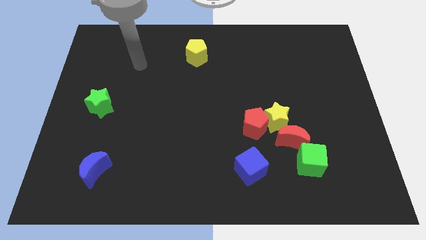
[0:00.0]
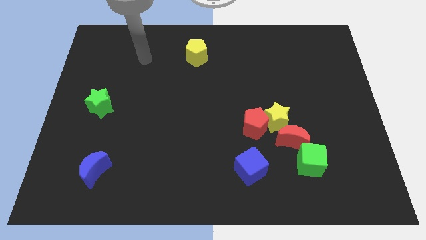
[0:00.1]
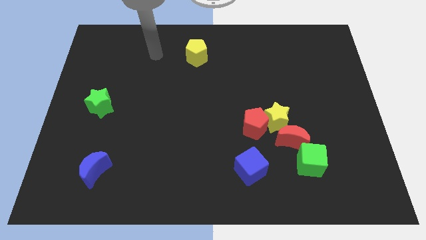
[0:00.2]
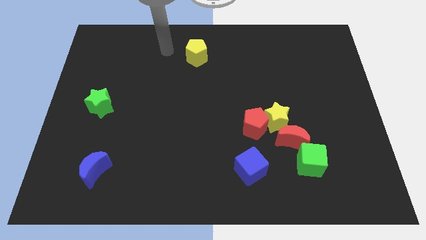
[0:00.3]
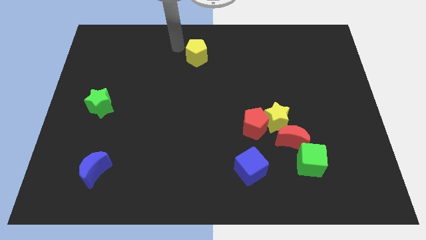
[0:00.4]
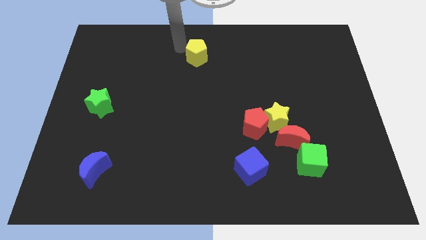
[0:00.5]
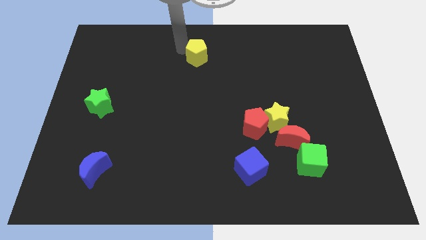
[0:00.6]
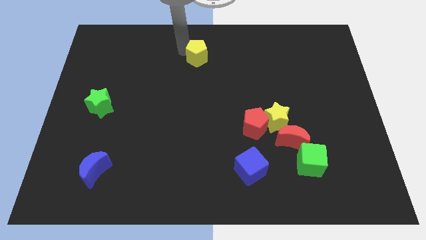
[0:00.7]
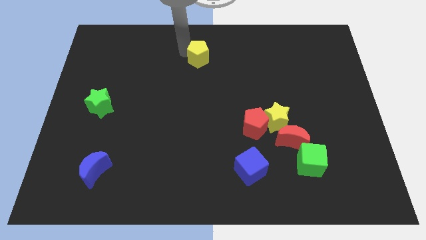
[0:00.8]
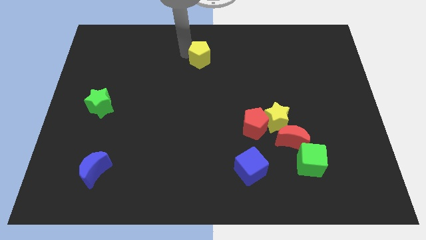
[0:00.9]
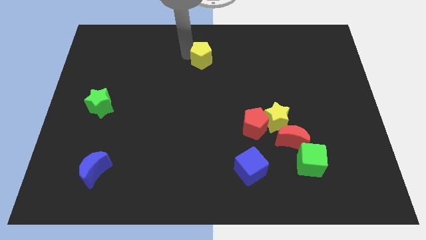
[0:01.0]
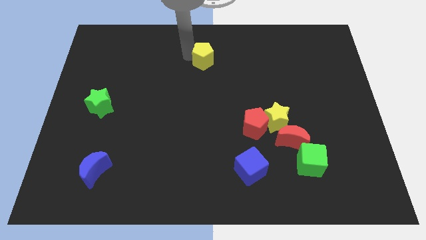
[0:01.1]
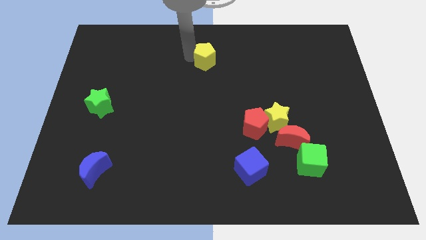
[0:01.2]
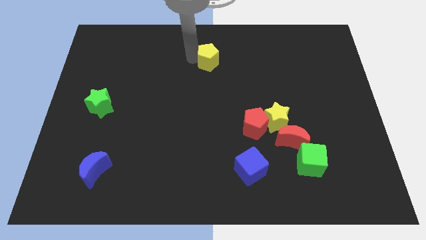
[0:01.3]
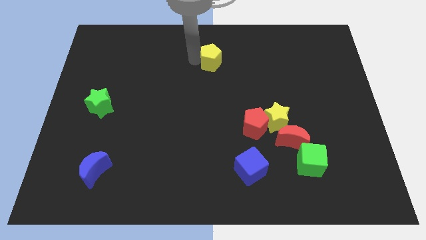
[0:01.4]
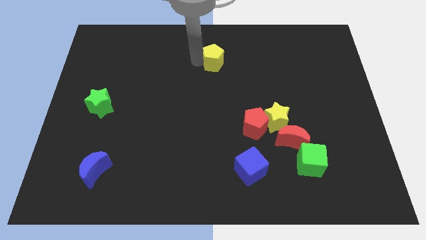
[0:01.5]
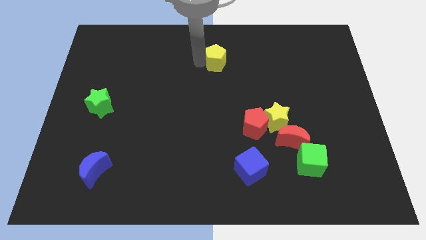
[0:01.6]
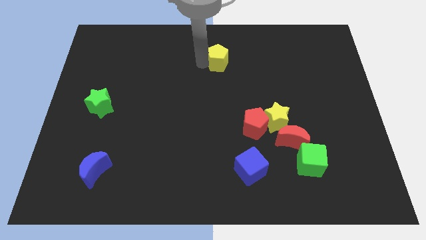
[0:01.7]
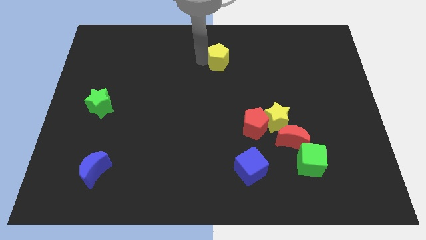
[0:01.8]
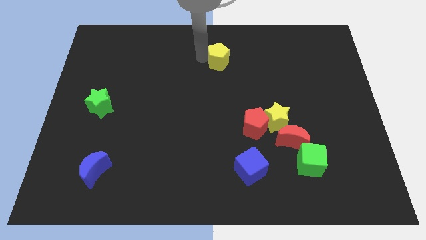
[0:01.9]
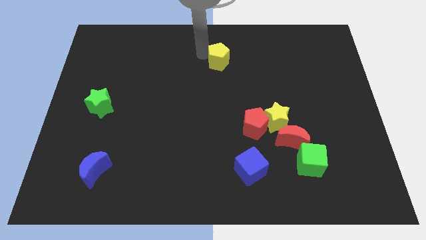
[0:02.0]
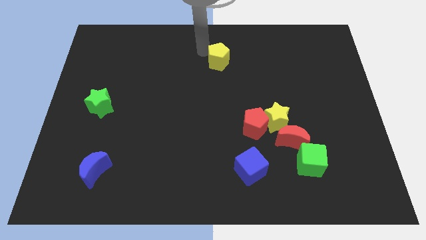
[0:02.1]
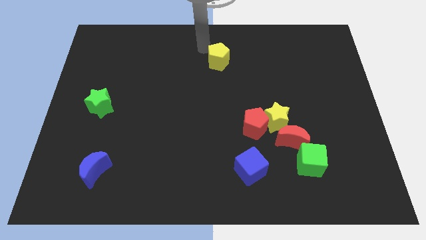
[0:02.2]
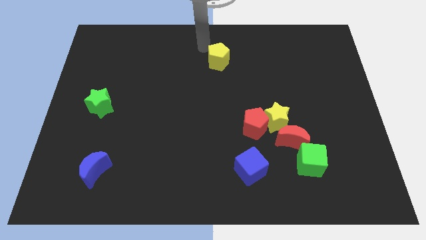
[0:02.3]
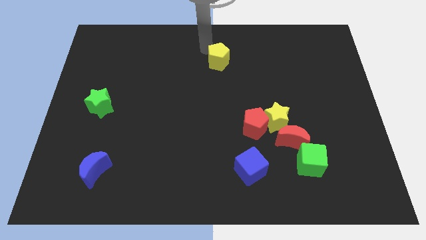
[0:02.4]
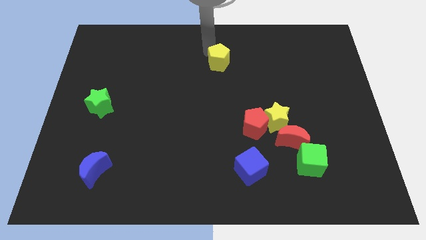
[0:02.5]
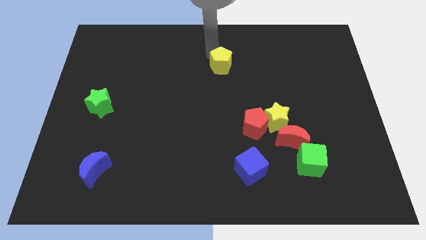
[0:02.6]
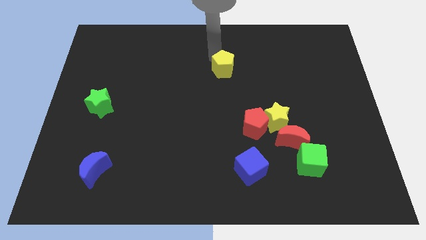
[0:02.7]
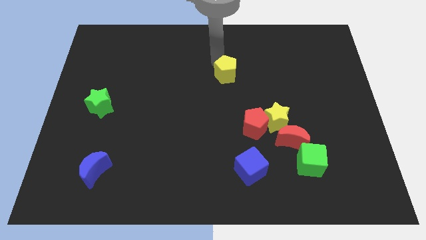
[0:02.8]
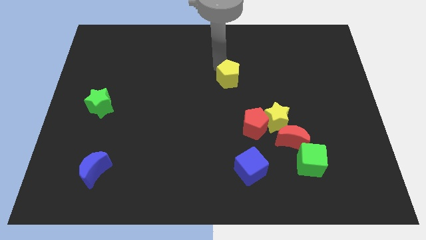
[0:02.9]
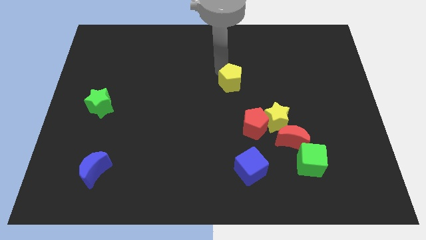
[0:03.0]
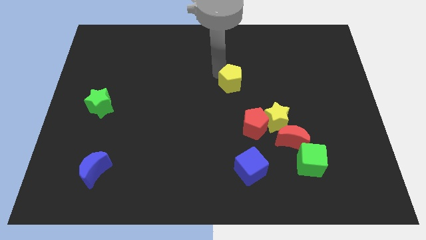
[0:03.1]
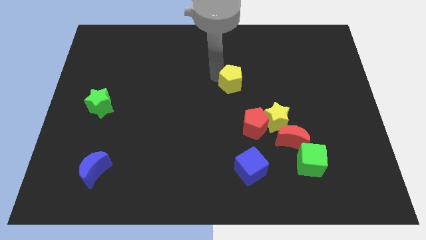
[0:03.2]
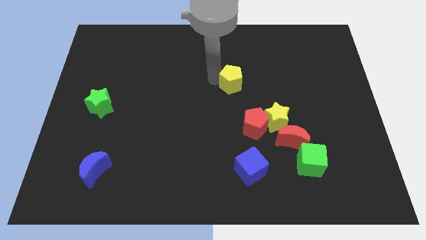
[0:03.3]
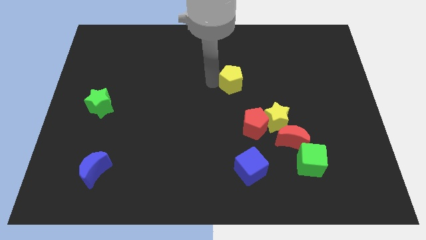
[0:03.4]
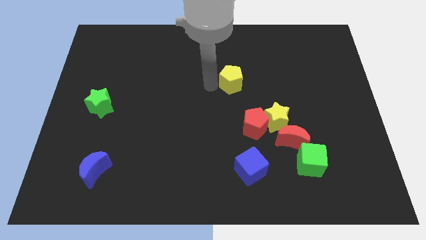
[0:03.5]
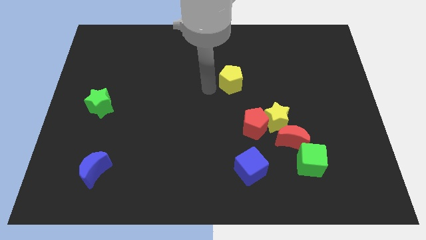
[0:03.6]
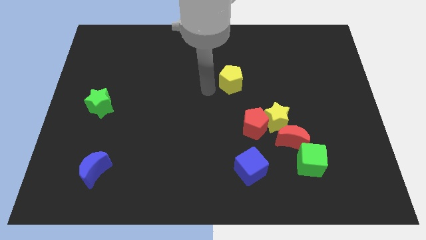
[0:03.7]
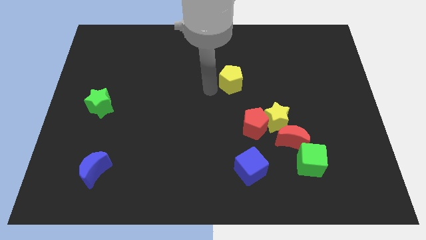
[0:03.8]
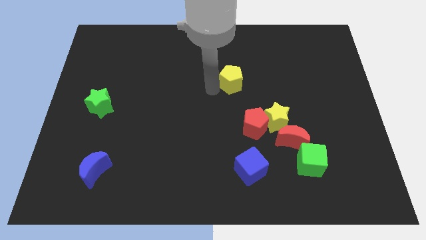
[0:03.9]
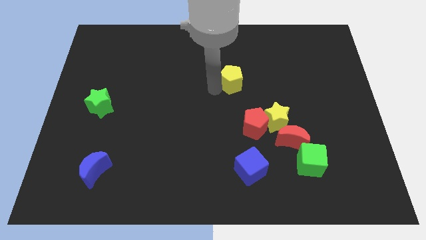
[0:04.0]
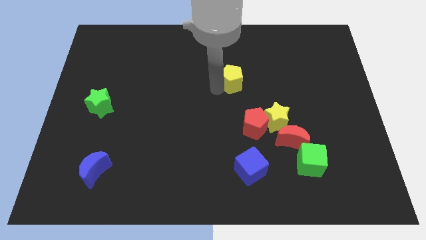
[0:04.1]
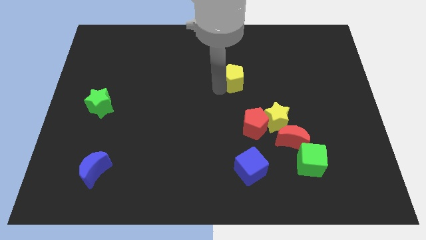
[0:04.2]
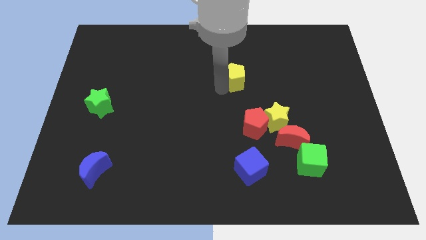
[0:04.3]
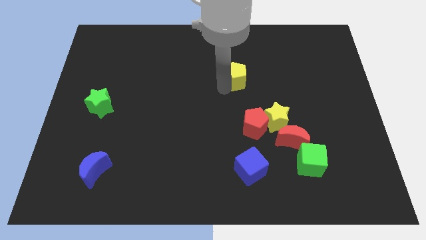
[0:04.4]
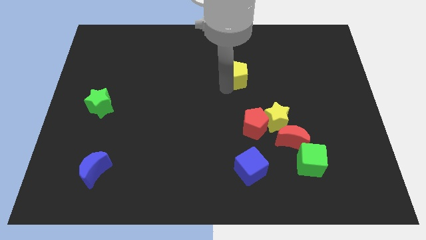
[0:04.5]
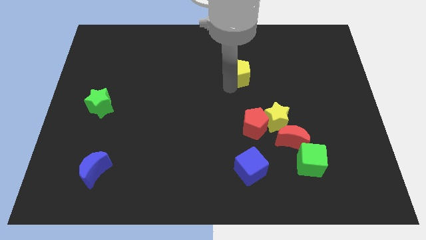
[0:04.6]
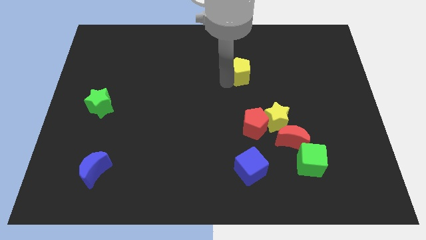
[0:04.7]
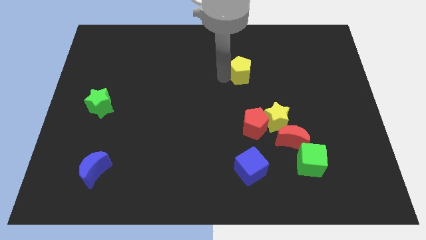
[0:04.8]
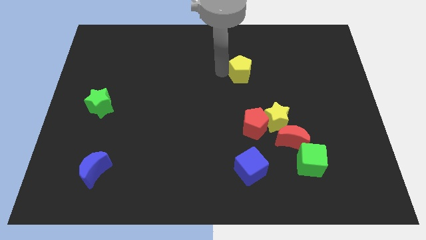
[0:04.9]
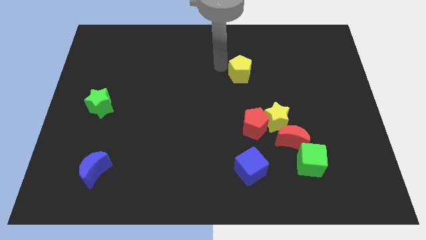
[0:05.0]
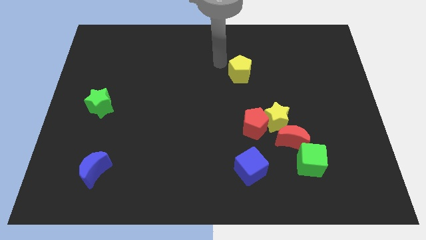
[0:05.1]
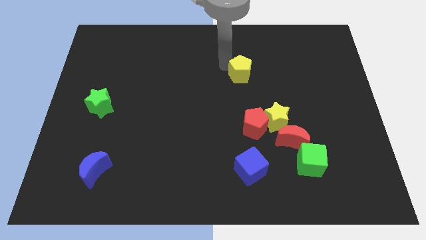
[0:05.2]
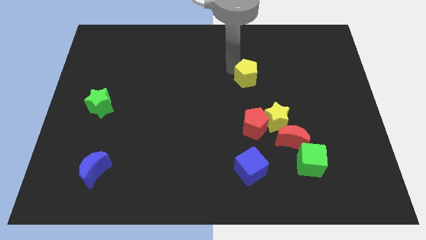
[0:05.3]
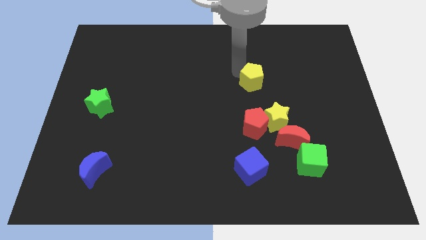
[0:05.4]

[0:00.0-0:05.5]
put the yellow pentagon to the top of the yellow star

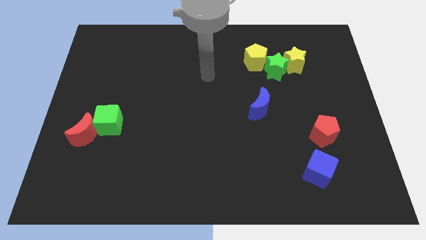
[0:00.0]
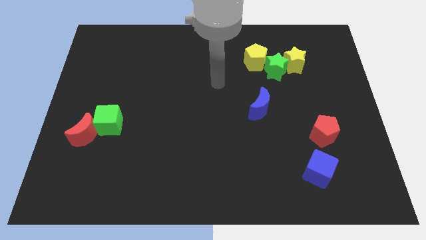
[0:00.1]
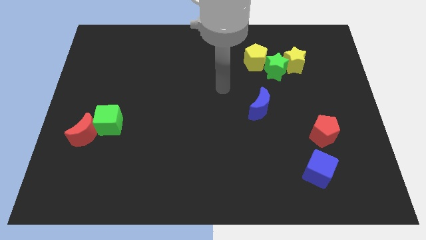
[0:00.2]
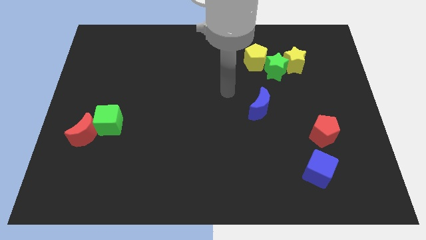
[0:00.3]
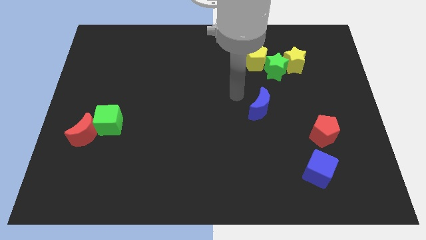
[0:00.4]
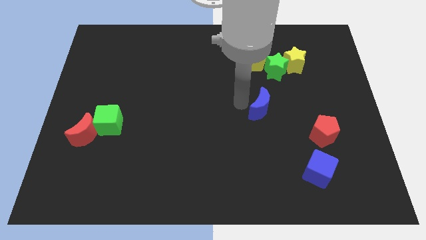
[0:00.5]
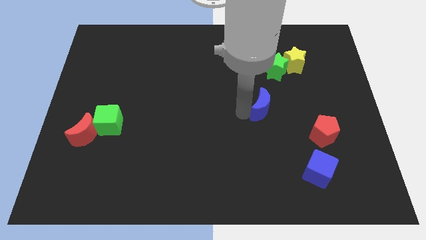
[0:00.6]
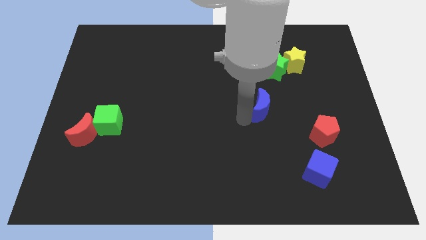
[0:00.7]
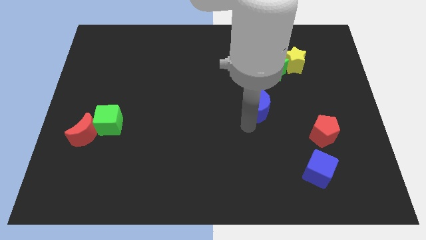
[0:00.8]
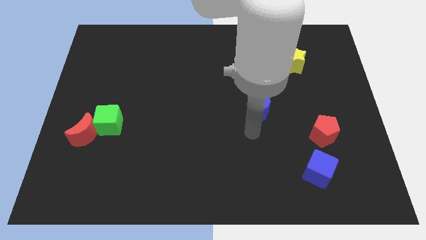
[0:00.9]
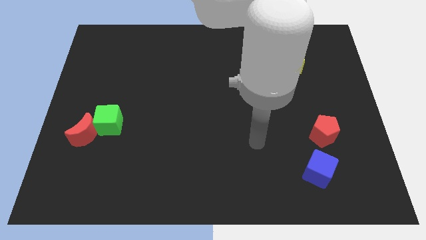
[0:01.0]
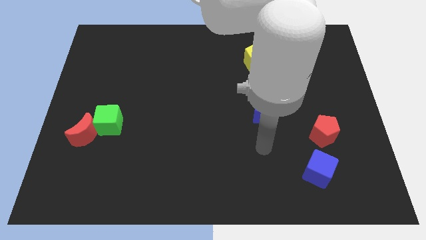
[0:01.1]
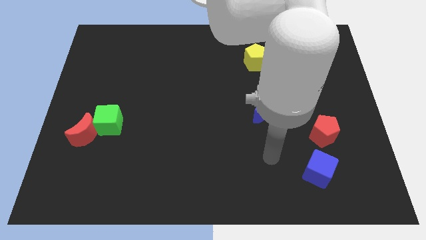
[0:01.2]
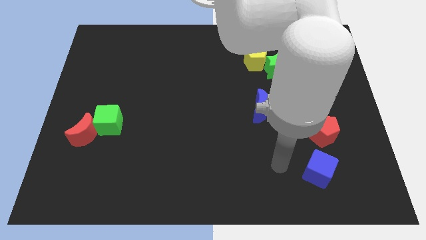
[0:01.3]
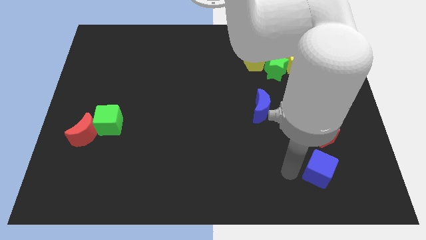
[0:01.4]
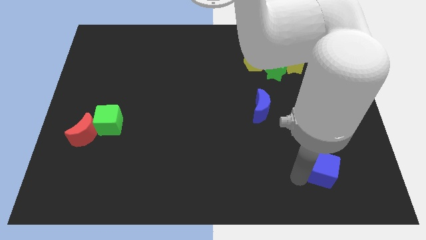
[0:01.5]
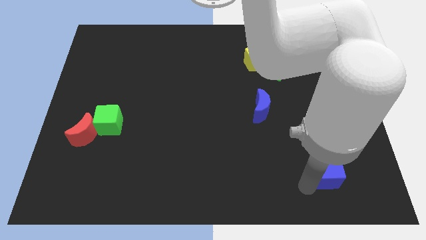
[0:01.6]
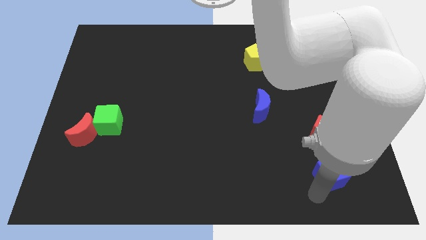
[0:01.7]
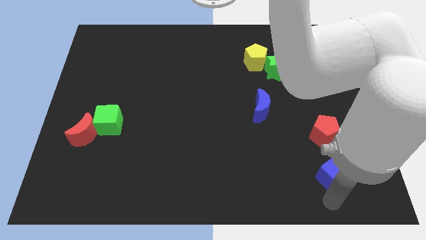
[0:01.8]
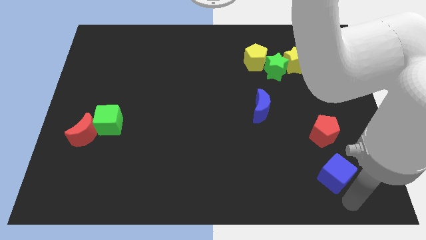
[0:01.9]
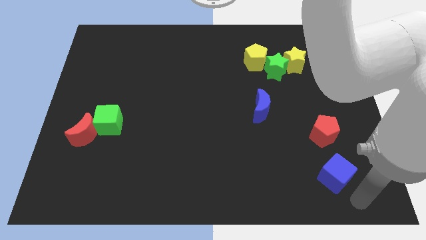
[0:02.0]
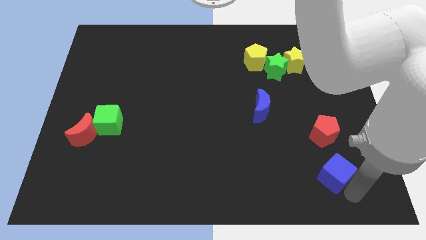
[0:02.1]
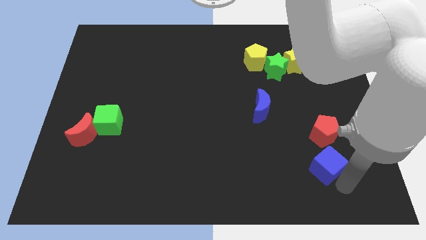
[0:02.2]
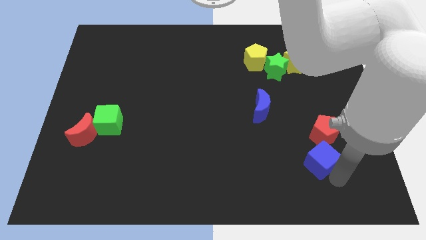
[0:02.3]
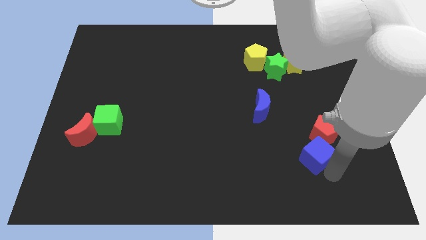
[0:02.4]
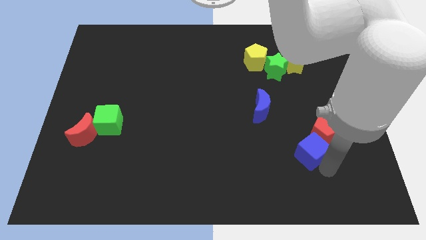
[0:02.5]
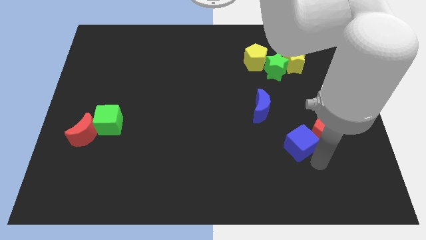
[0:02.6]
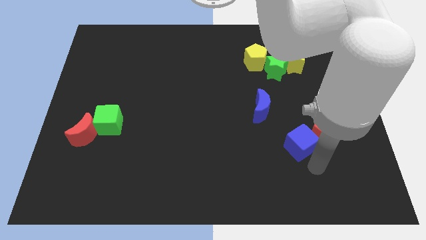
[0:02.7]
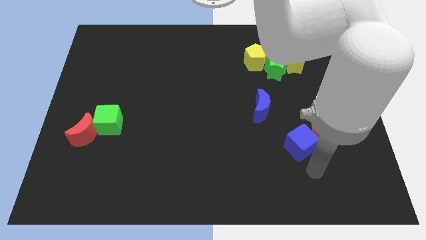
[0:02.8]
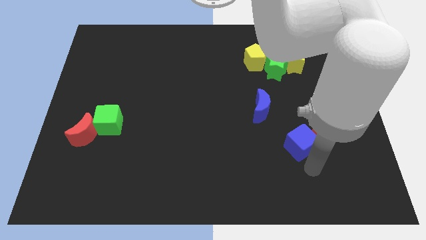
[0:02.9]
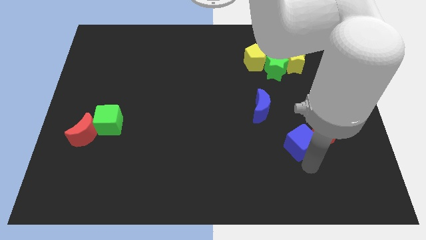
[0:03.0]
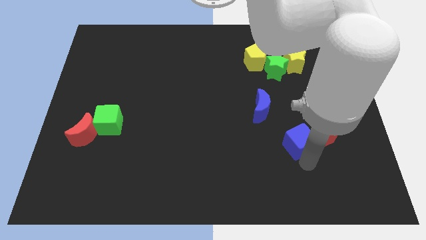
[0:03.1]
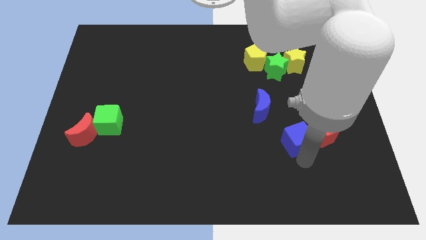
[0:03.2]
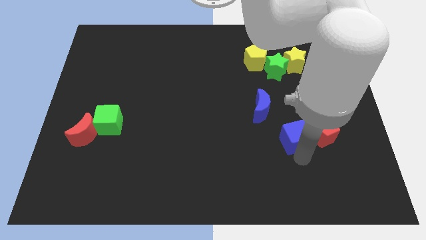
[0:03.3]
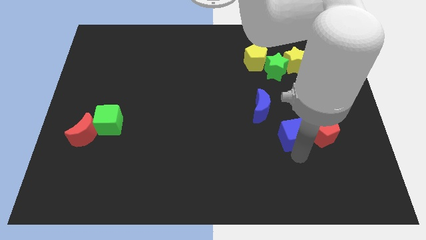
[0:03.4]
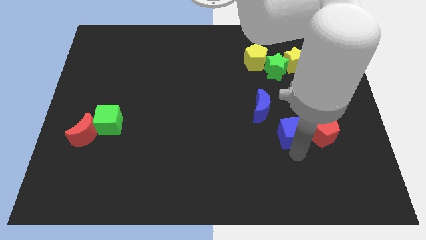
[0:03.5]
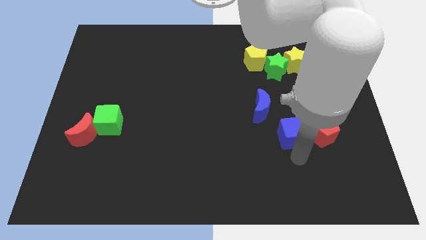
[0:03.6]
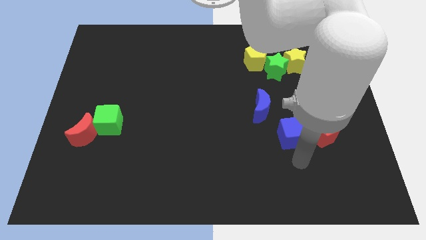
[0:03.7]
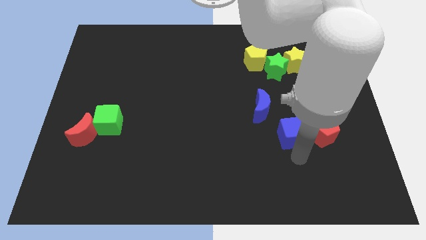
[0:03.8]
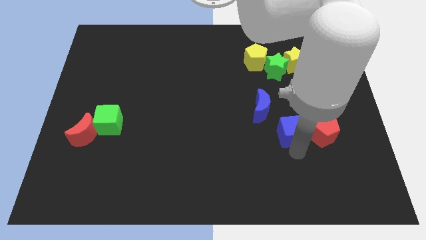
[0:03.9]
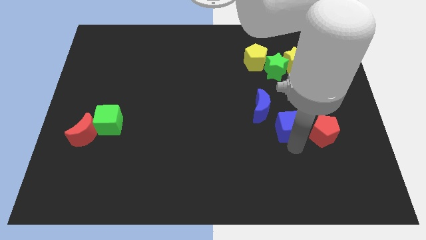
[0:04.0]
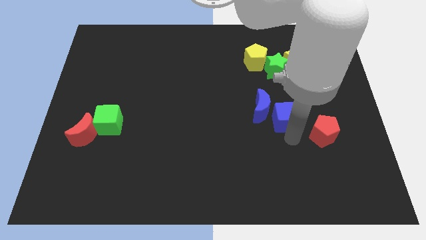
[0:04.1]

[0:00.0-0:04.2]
push the blue cube to the bottom side of the green star
